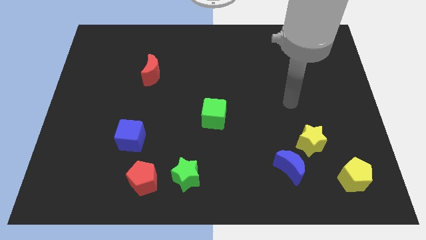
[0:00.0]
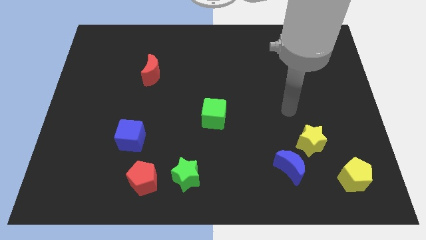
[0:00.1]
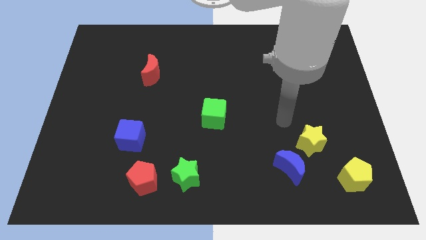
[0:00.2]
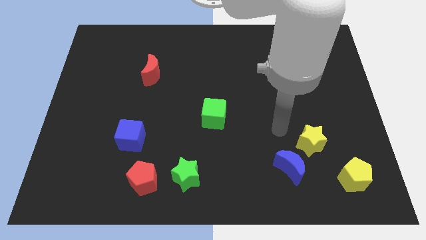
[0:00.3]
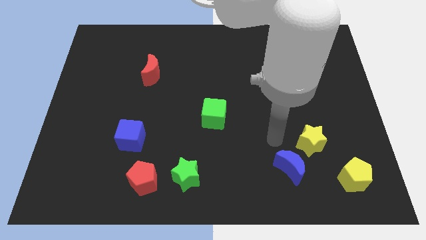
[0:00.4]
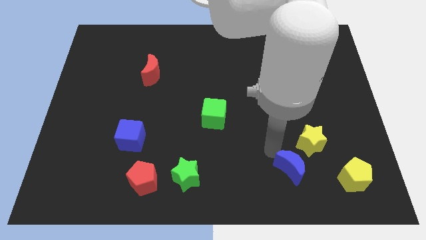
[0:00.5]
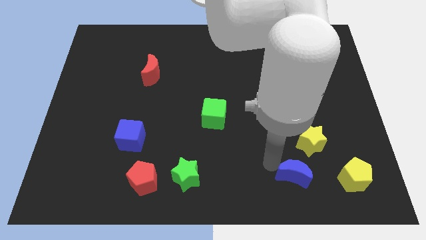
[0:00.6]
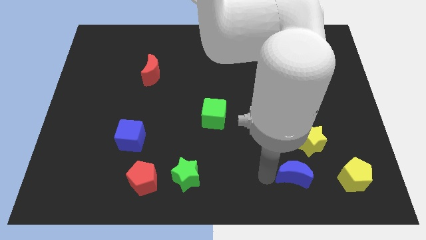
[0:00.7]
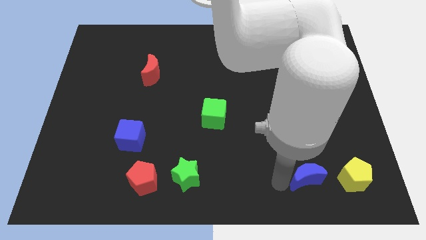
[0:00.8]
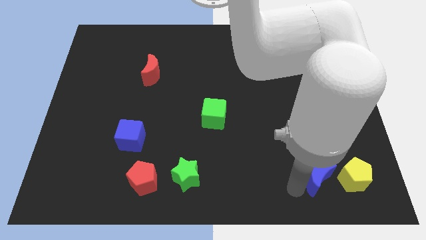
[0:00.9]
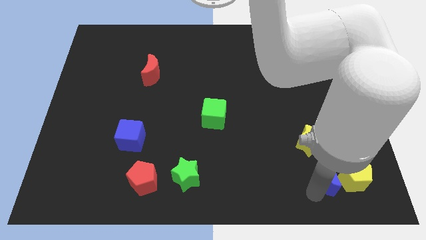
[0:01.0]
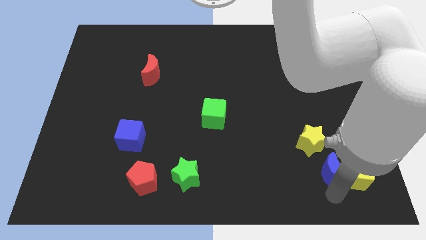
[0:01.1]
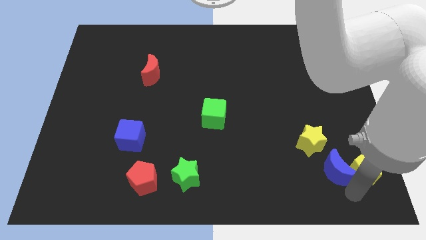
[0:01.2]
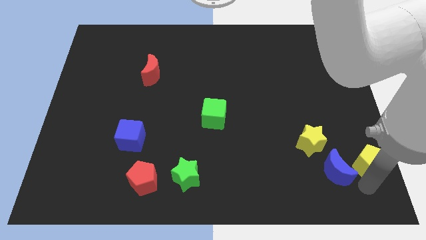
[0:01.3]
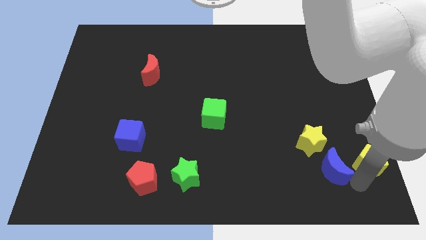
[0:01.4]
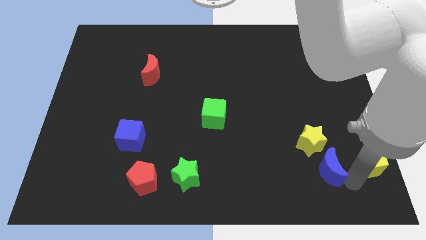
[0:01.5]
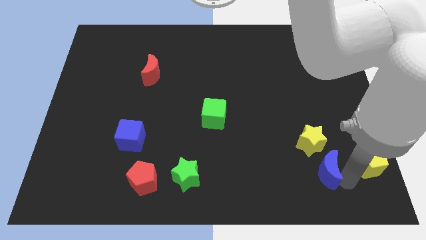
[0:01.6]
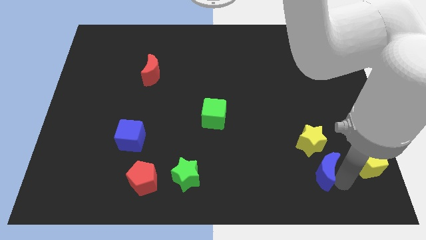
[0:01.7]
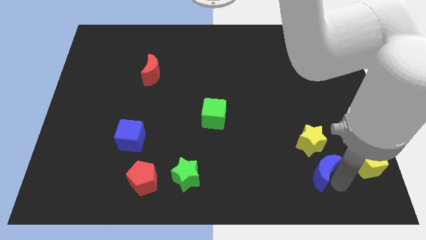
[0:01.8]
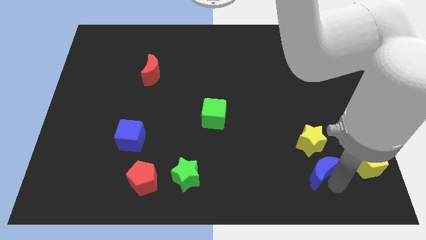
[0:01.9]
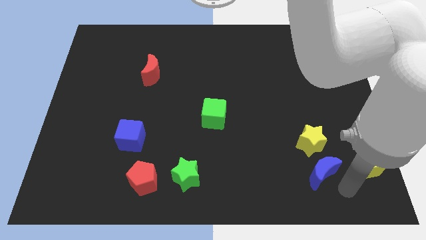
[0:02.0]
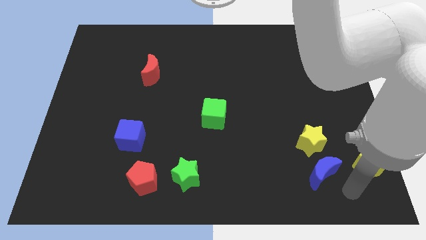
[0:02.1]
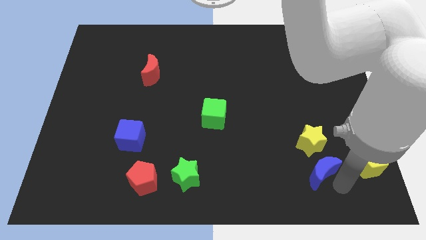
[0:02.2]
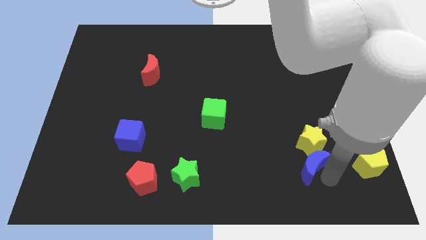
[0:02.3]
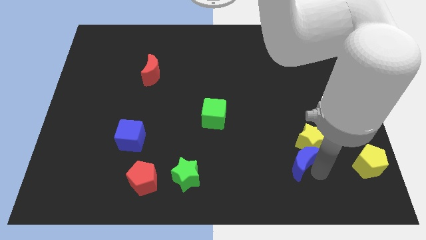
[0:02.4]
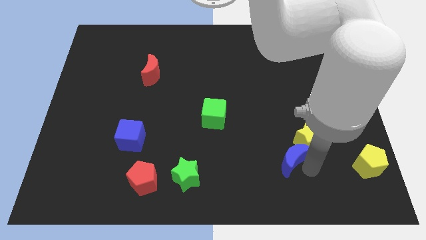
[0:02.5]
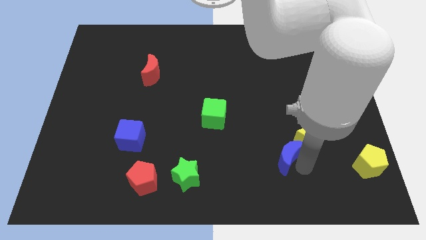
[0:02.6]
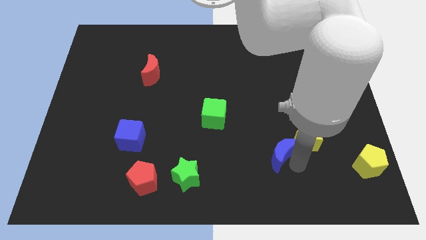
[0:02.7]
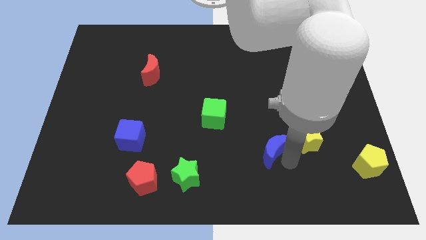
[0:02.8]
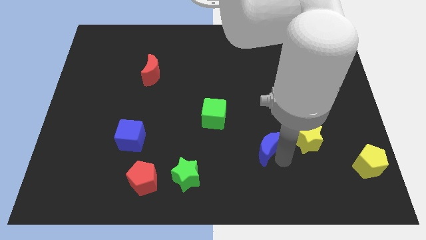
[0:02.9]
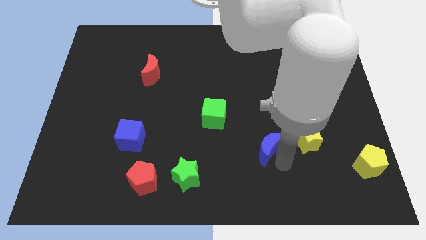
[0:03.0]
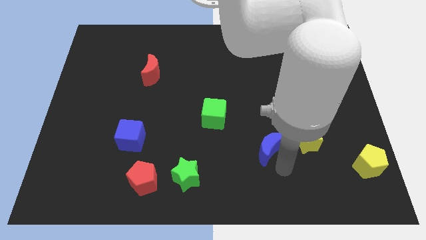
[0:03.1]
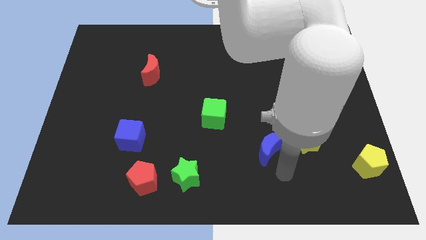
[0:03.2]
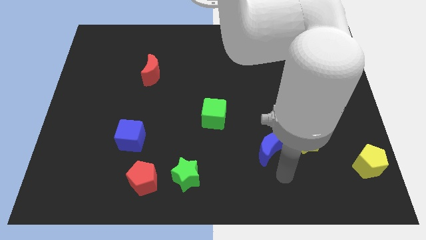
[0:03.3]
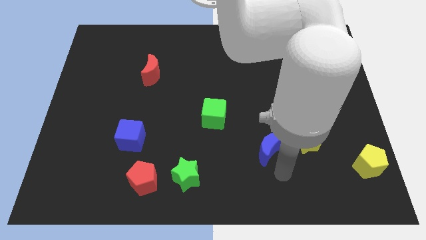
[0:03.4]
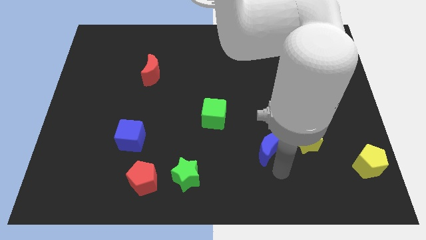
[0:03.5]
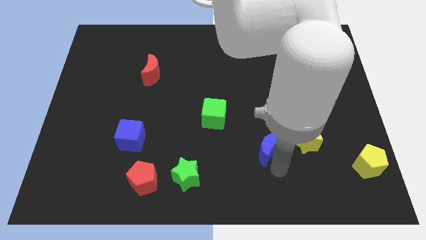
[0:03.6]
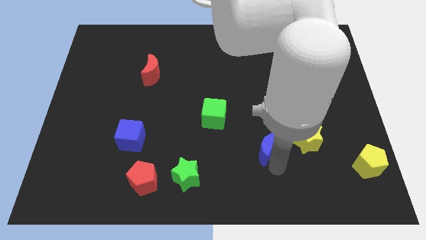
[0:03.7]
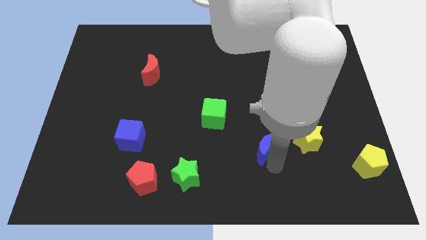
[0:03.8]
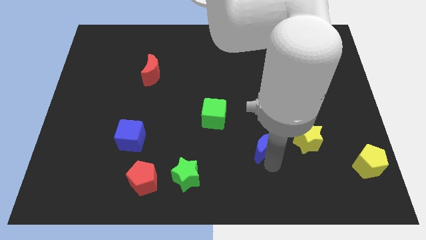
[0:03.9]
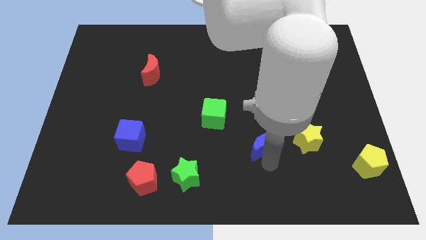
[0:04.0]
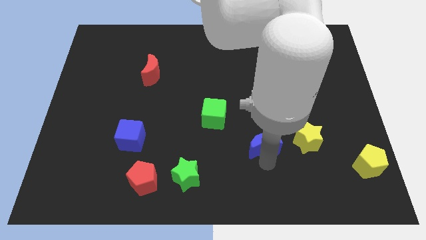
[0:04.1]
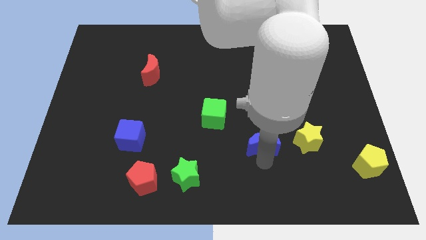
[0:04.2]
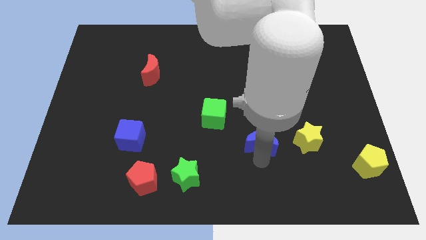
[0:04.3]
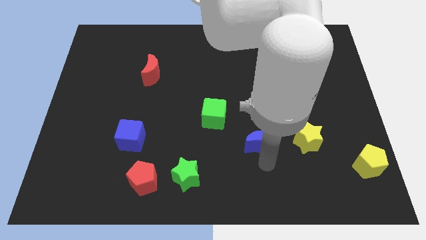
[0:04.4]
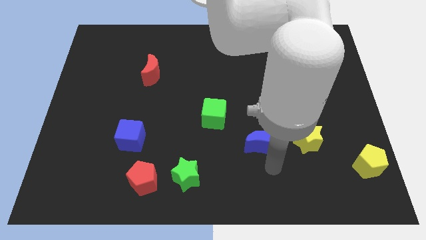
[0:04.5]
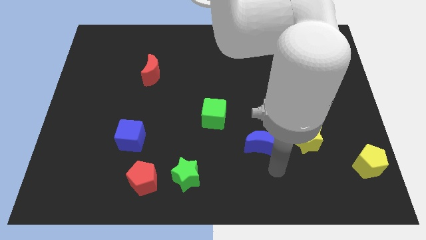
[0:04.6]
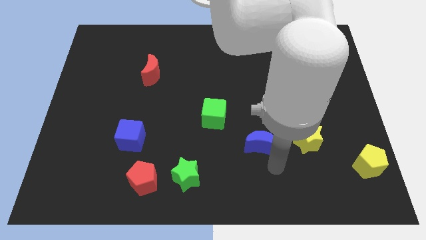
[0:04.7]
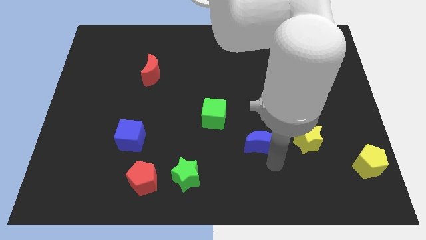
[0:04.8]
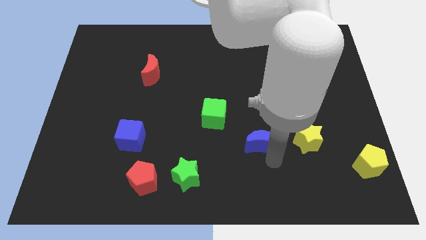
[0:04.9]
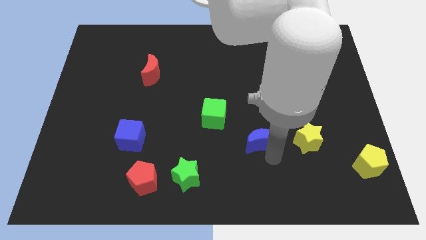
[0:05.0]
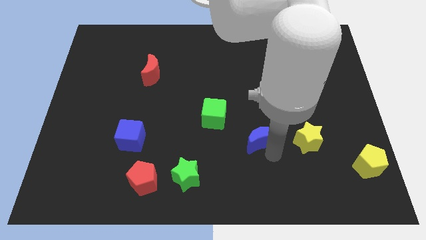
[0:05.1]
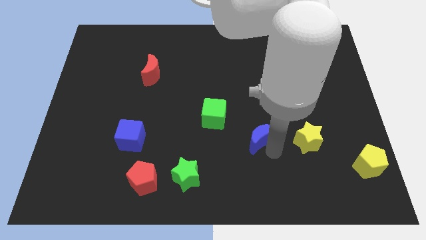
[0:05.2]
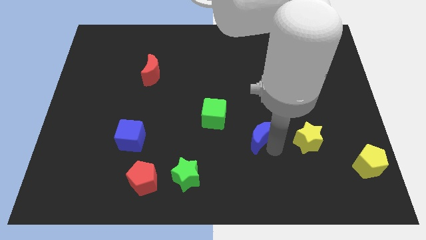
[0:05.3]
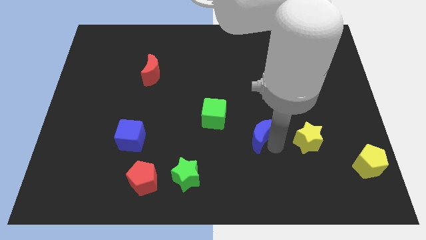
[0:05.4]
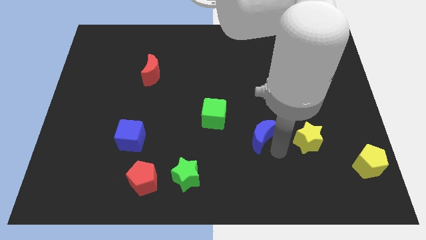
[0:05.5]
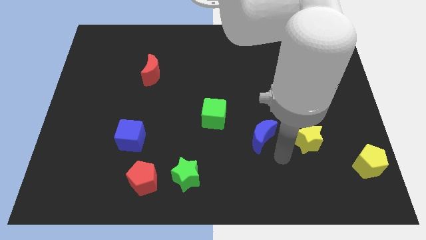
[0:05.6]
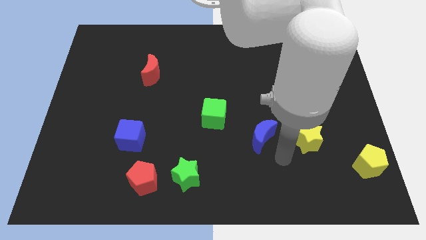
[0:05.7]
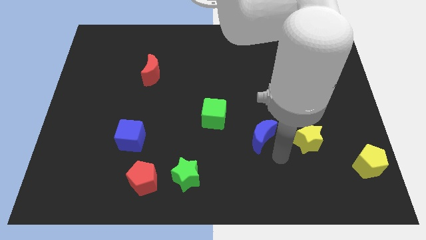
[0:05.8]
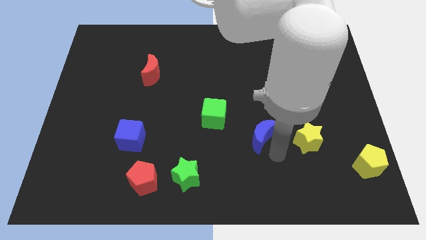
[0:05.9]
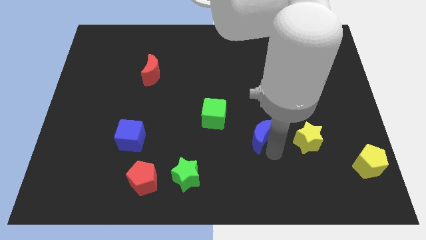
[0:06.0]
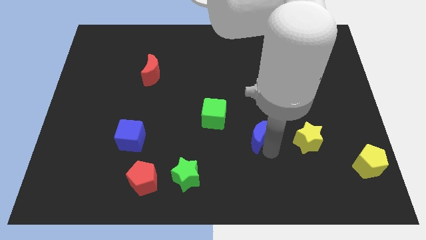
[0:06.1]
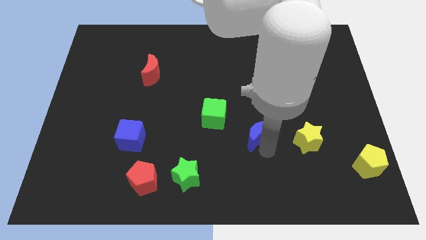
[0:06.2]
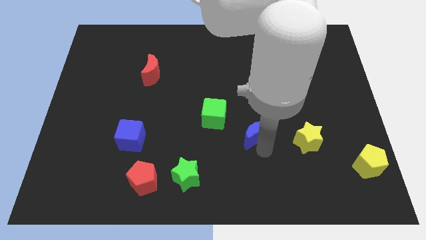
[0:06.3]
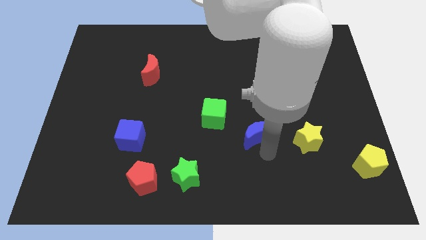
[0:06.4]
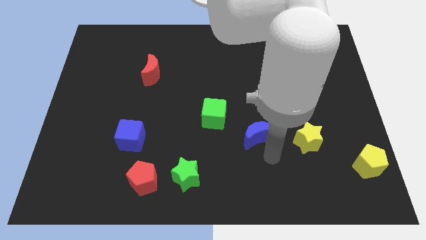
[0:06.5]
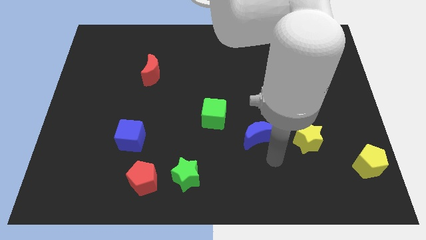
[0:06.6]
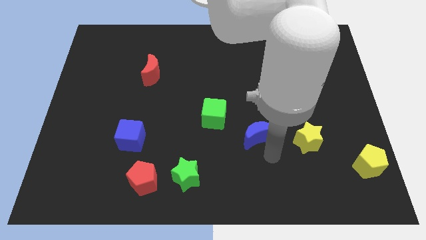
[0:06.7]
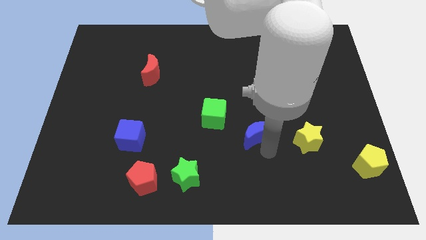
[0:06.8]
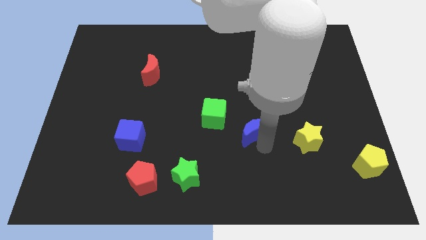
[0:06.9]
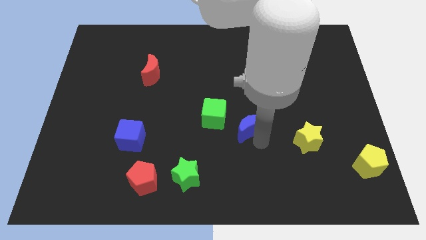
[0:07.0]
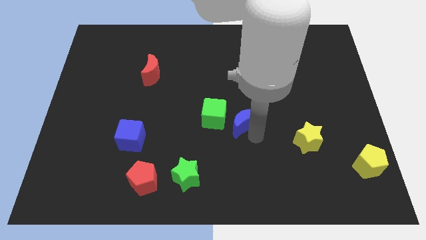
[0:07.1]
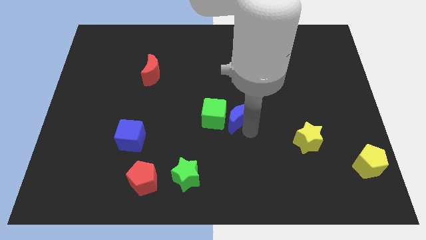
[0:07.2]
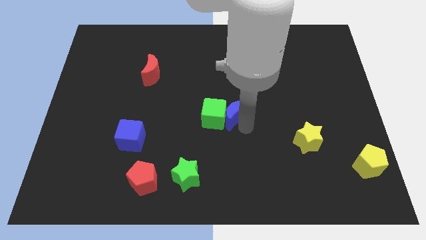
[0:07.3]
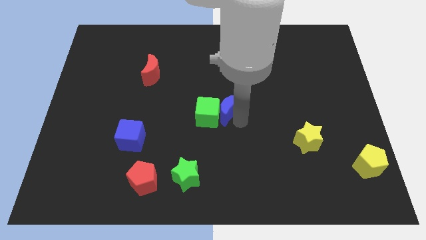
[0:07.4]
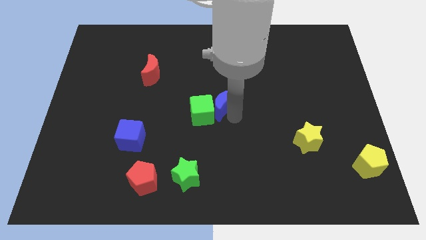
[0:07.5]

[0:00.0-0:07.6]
push the blue moon up and to the left
